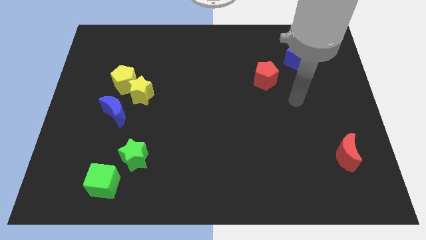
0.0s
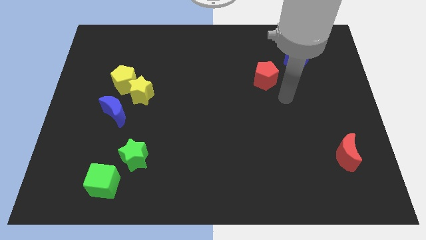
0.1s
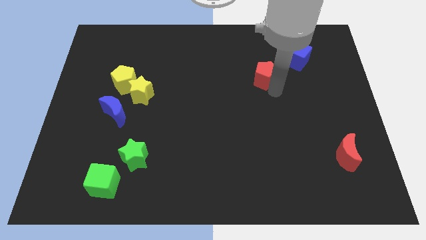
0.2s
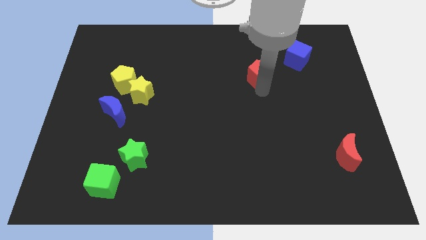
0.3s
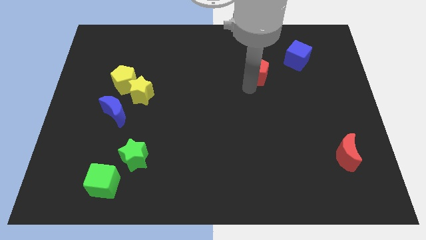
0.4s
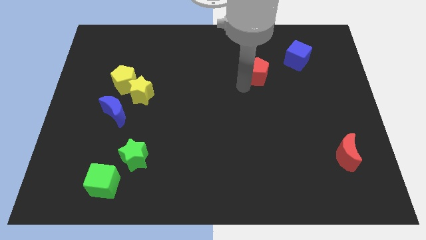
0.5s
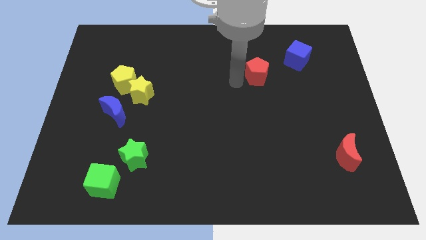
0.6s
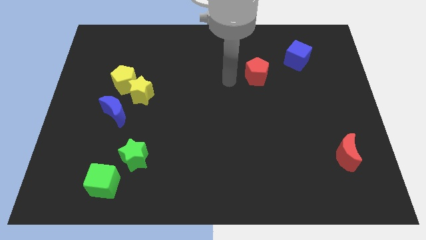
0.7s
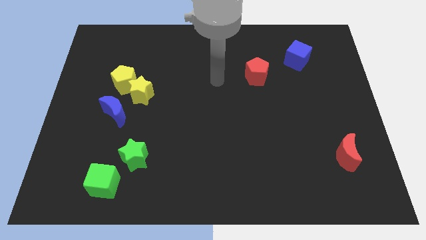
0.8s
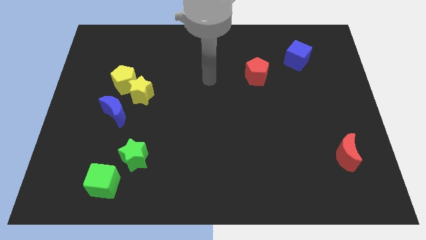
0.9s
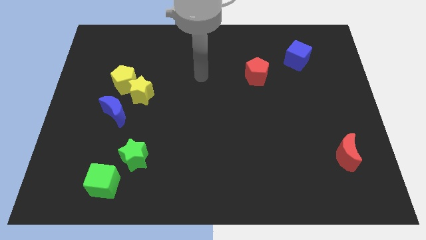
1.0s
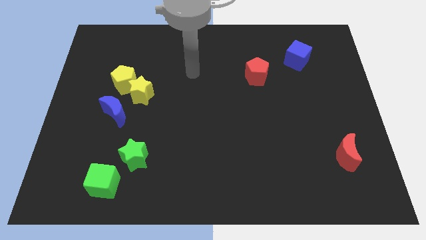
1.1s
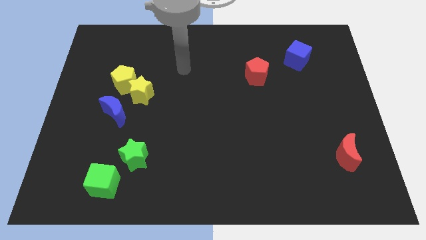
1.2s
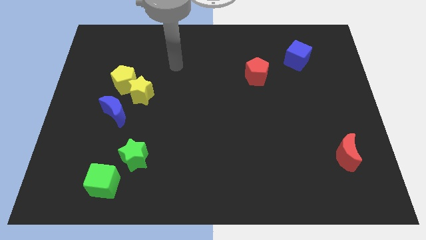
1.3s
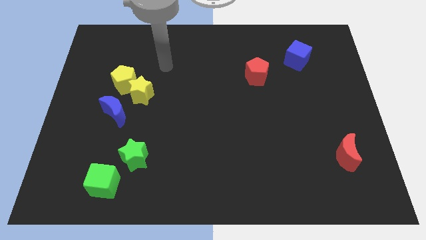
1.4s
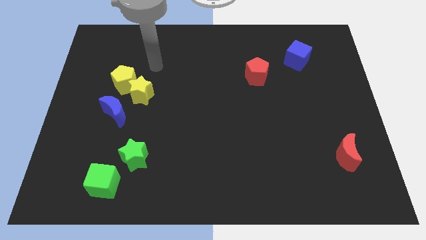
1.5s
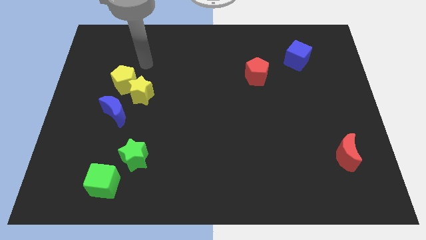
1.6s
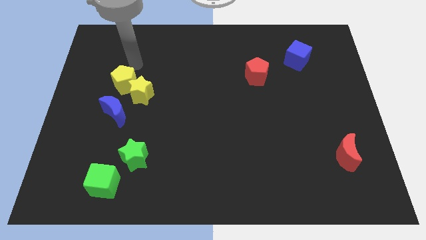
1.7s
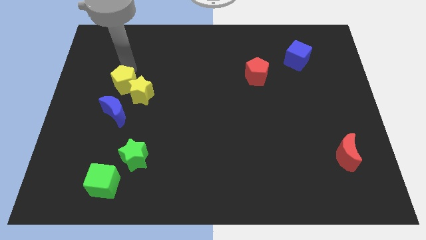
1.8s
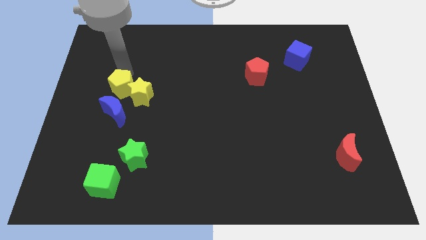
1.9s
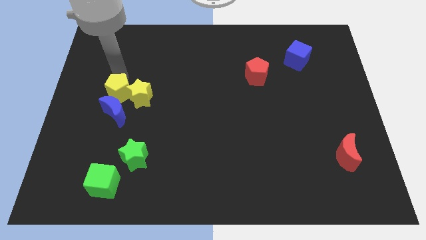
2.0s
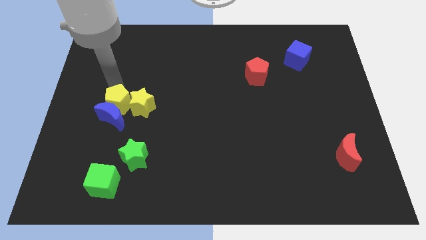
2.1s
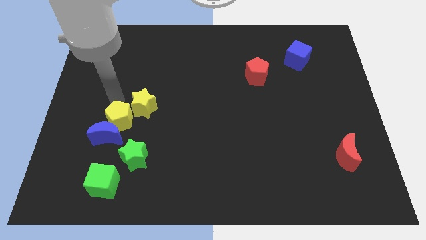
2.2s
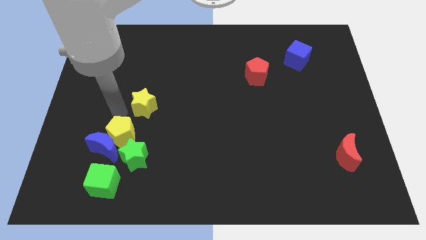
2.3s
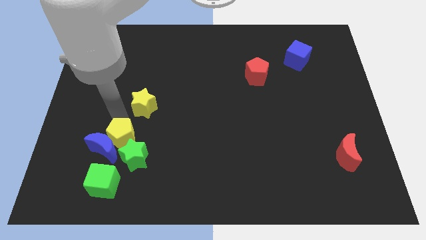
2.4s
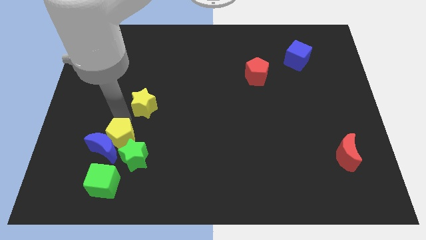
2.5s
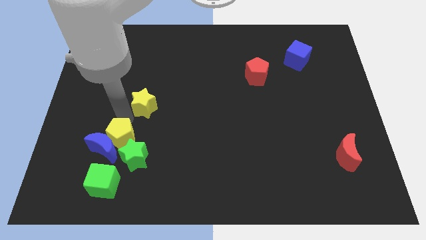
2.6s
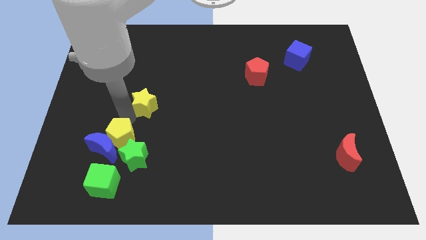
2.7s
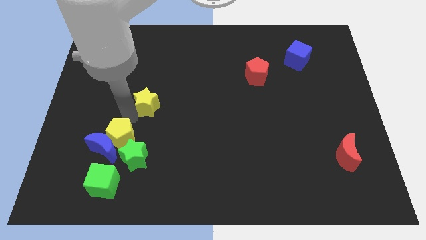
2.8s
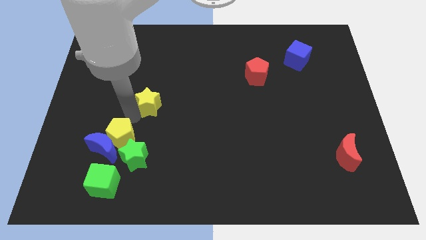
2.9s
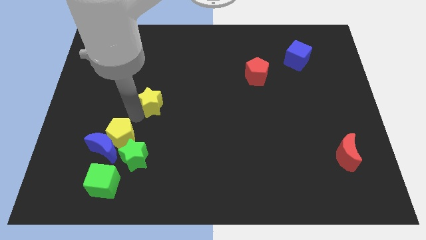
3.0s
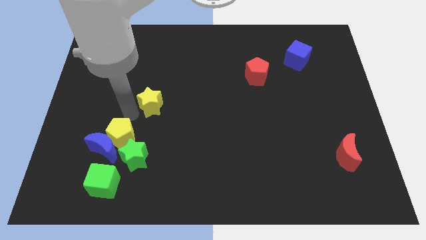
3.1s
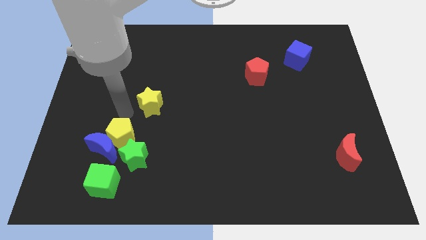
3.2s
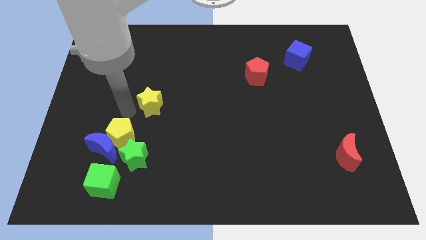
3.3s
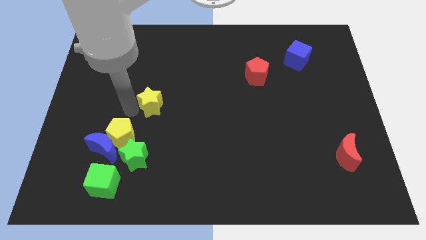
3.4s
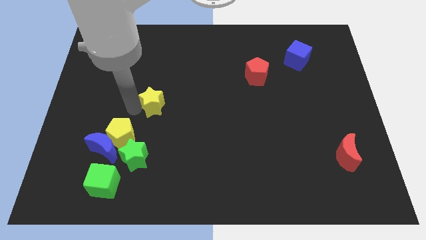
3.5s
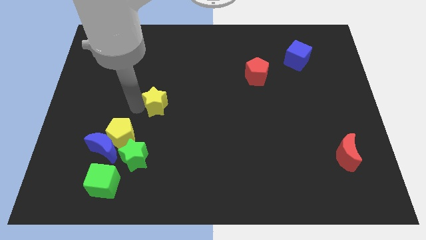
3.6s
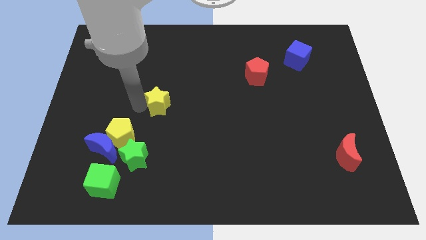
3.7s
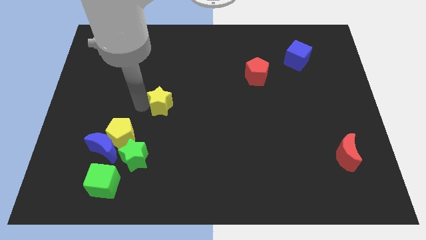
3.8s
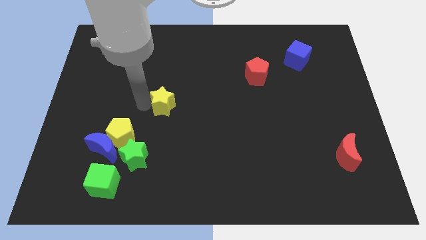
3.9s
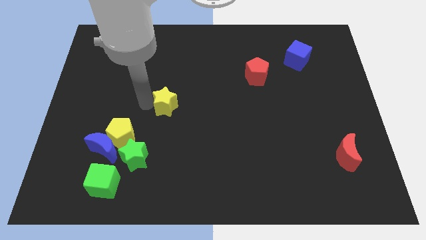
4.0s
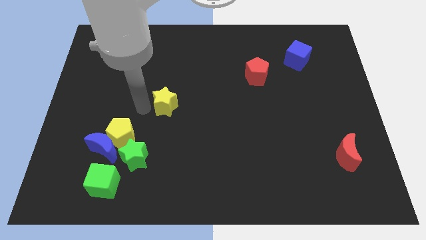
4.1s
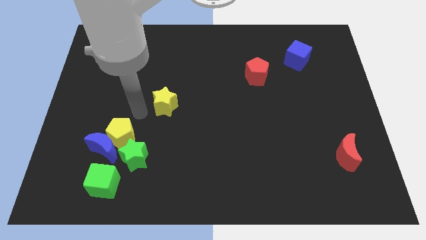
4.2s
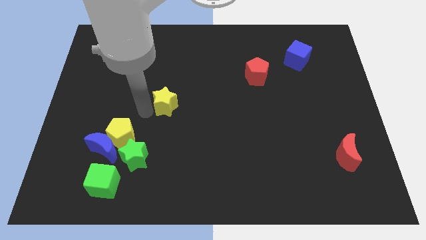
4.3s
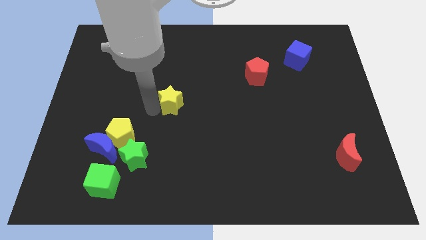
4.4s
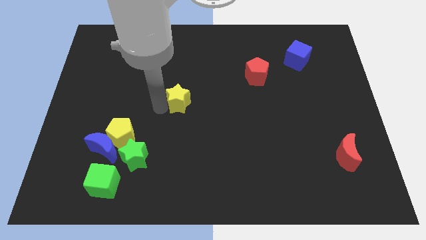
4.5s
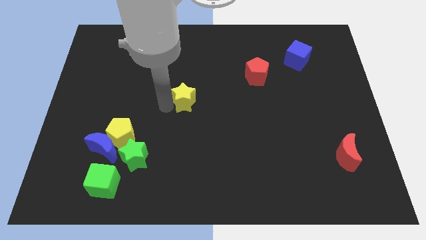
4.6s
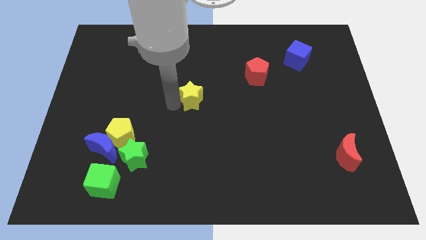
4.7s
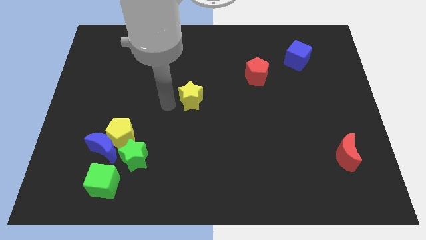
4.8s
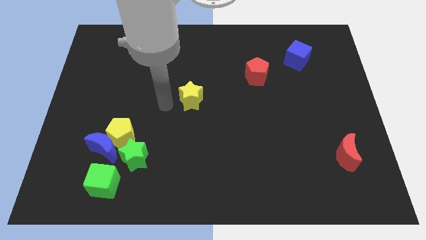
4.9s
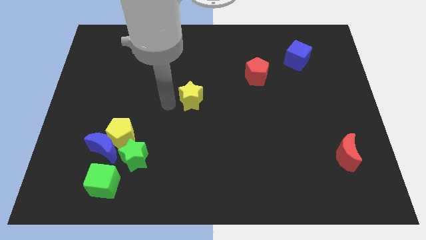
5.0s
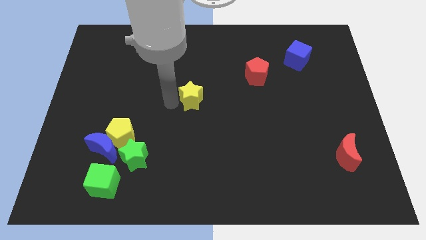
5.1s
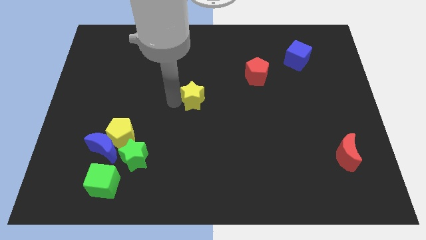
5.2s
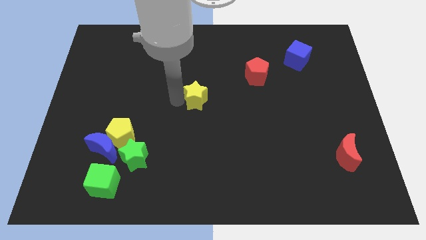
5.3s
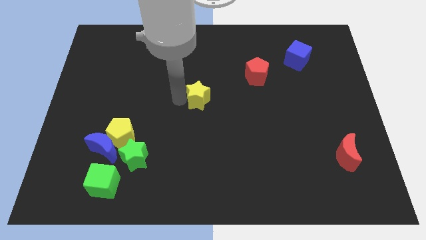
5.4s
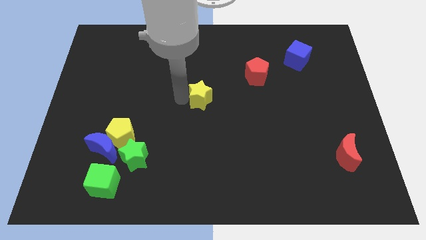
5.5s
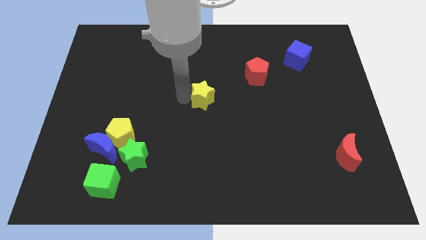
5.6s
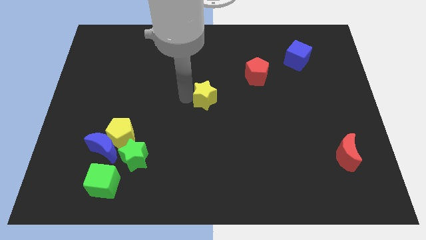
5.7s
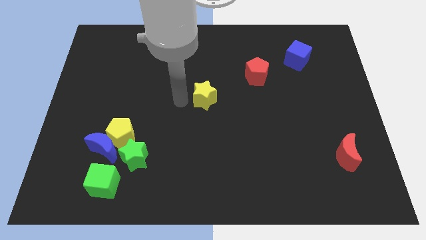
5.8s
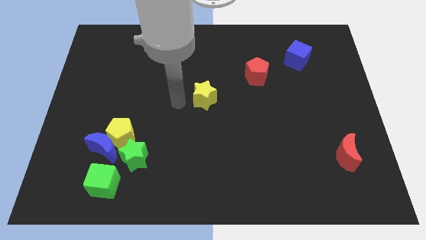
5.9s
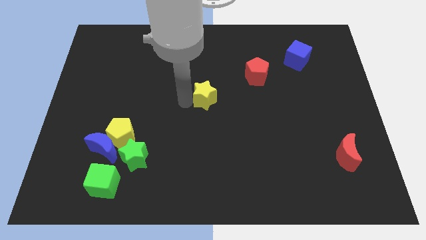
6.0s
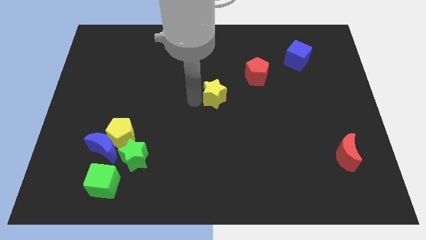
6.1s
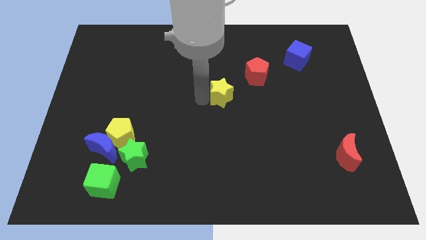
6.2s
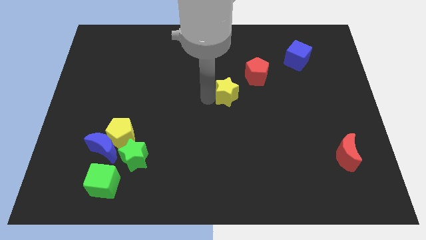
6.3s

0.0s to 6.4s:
slide the yellow star to the right

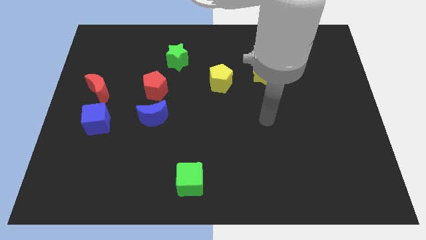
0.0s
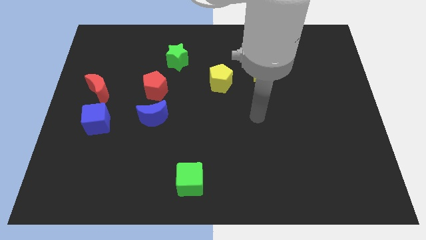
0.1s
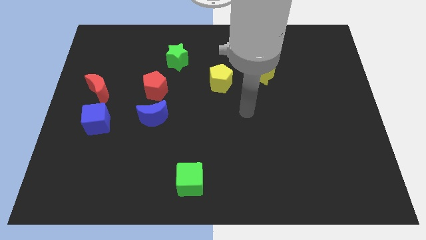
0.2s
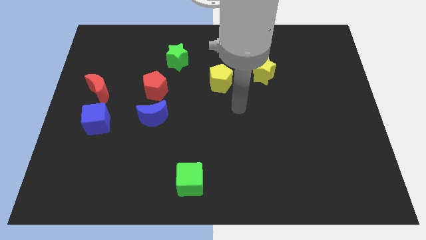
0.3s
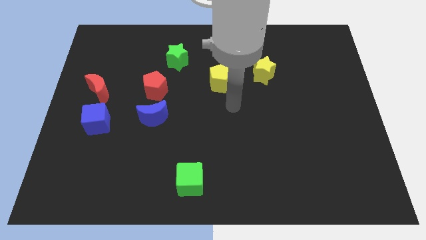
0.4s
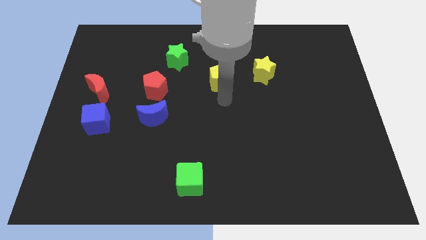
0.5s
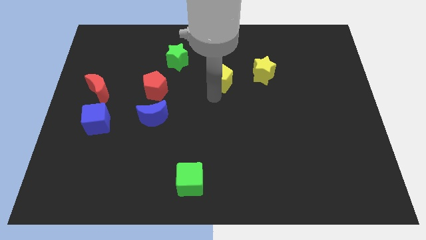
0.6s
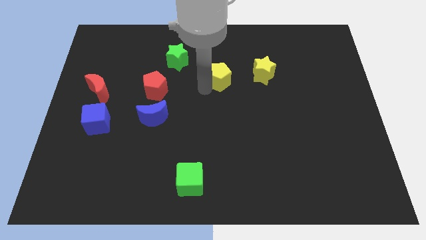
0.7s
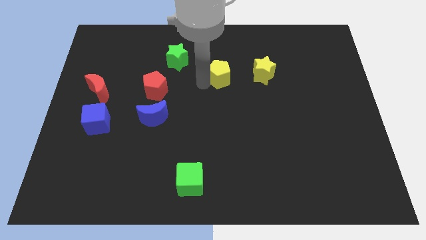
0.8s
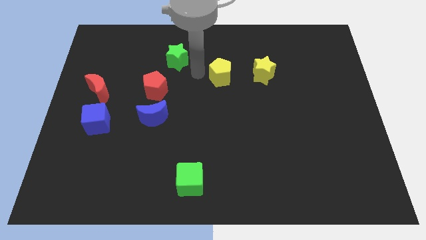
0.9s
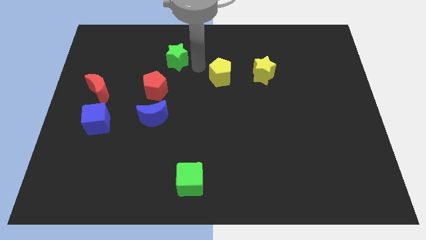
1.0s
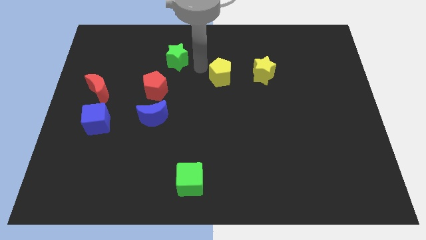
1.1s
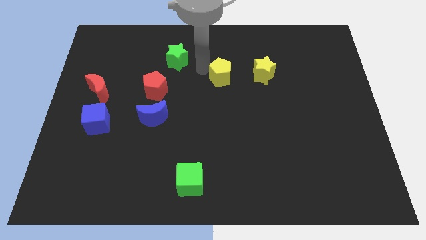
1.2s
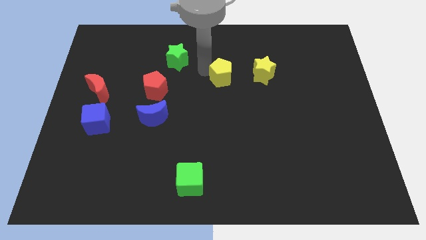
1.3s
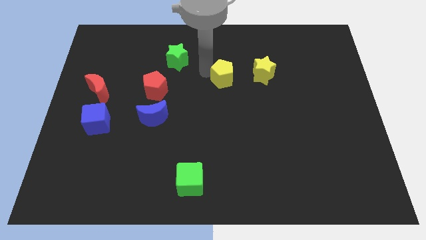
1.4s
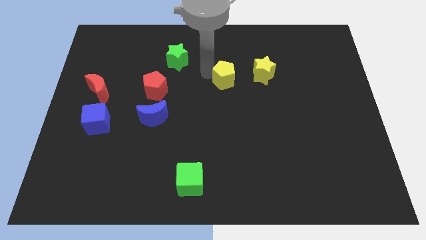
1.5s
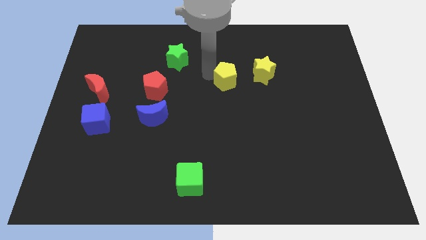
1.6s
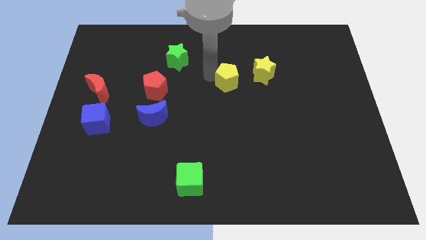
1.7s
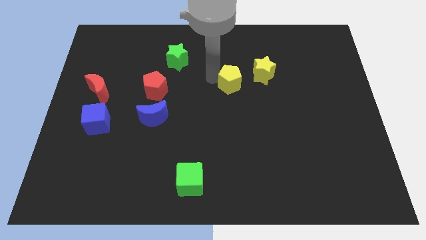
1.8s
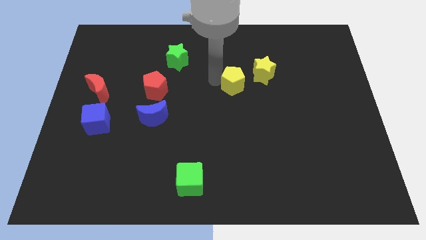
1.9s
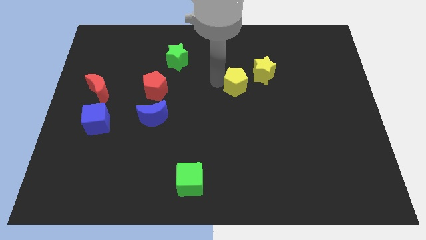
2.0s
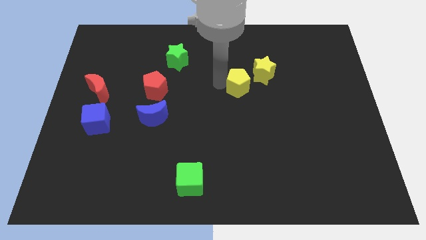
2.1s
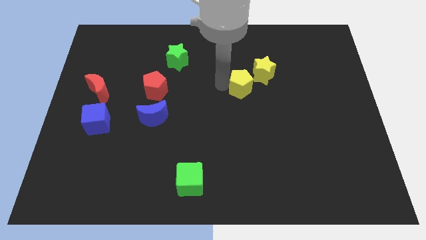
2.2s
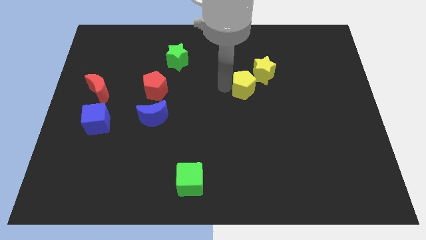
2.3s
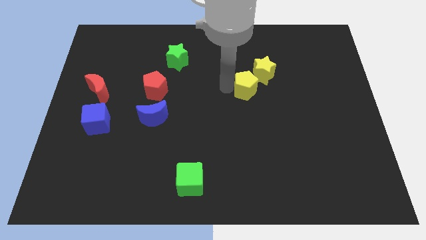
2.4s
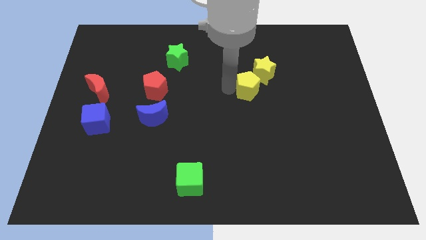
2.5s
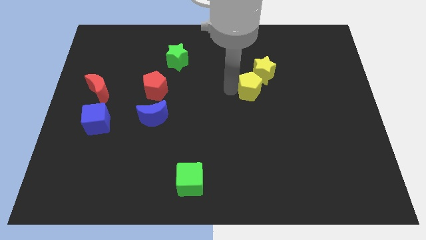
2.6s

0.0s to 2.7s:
push the yellow pentagon slightly right
